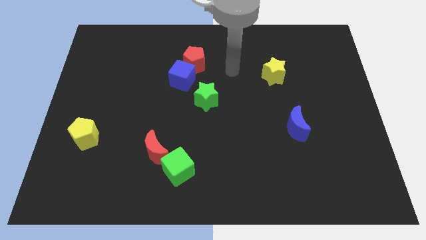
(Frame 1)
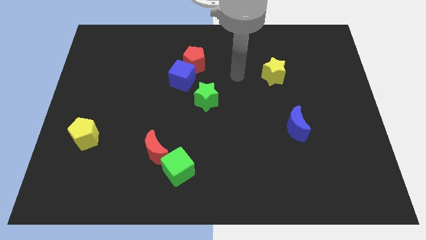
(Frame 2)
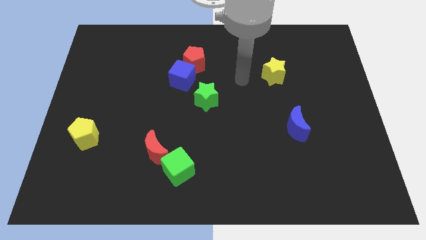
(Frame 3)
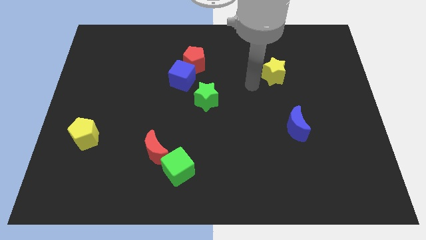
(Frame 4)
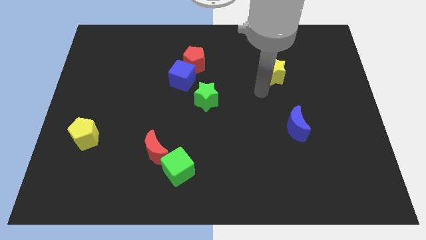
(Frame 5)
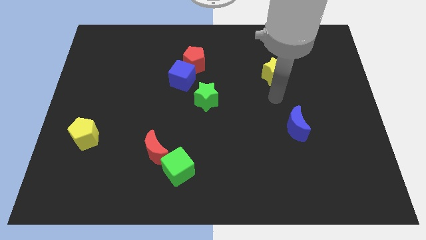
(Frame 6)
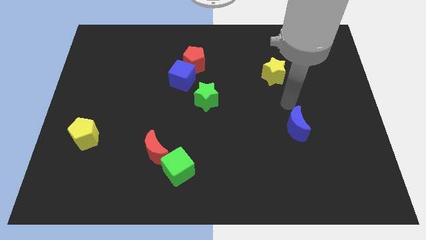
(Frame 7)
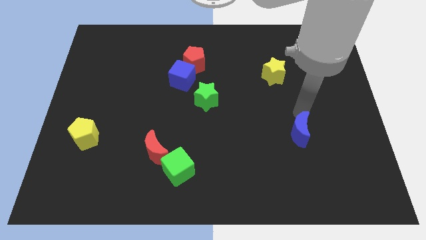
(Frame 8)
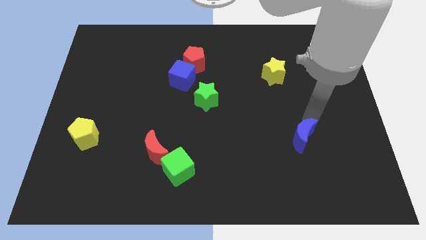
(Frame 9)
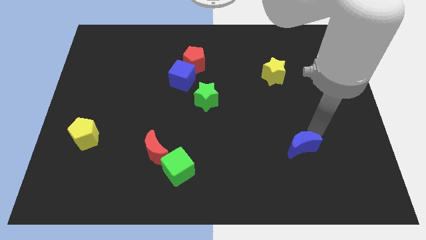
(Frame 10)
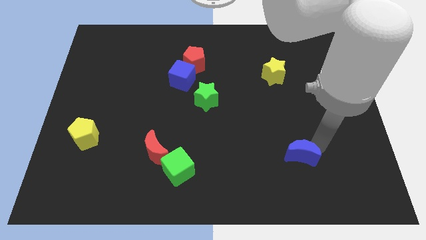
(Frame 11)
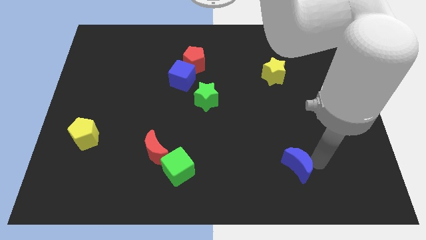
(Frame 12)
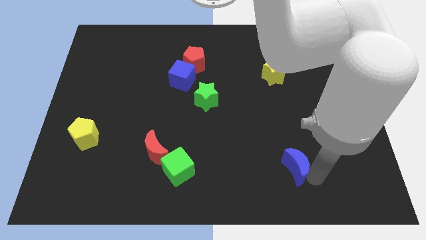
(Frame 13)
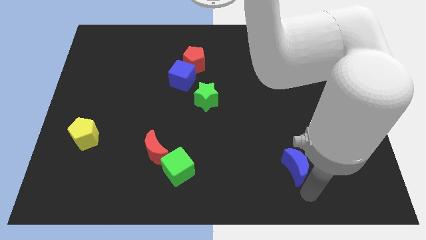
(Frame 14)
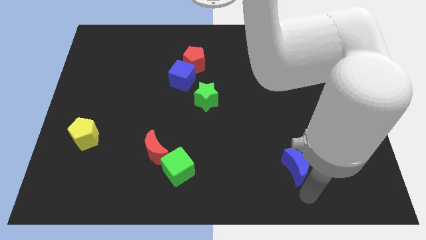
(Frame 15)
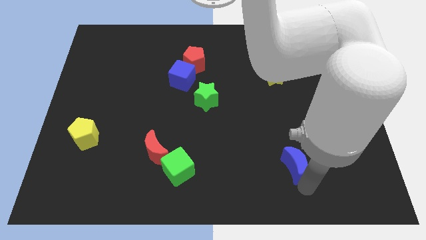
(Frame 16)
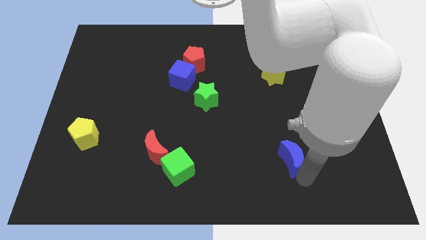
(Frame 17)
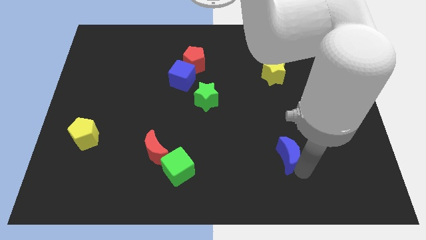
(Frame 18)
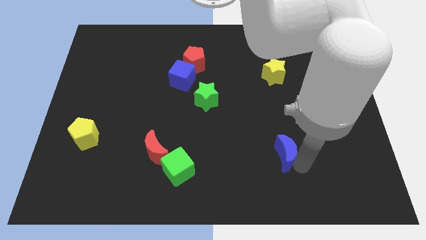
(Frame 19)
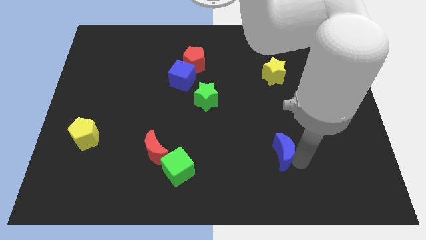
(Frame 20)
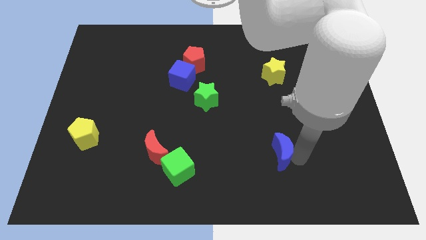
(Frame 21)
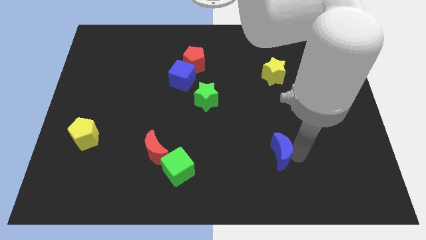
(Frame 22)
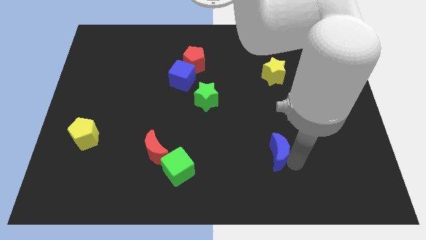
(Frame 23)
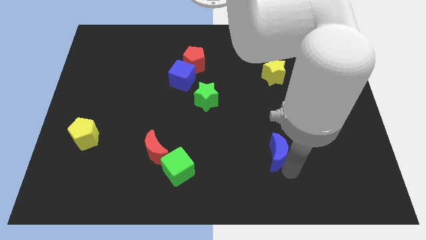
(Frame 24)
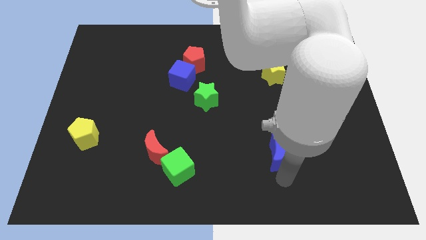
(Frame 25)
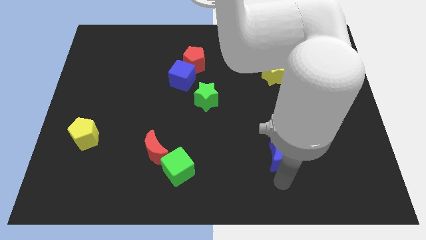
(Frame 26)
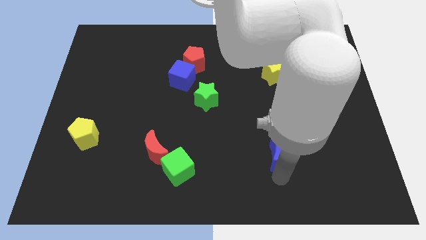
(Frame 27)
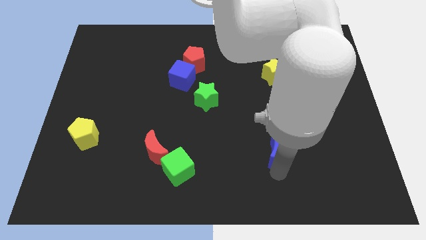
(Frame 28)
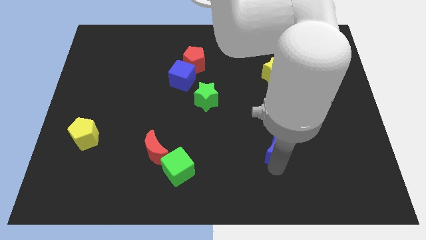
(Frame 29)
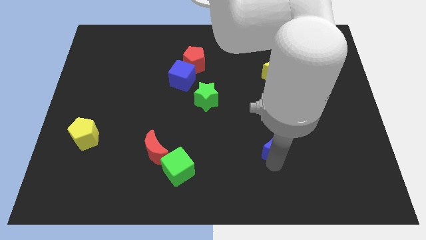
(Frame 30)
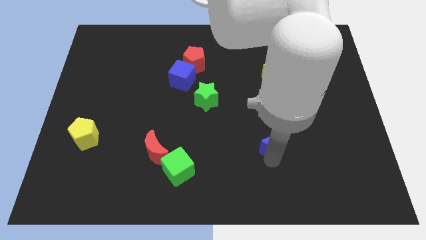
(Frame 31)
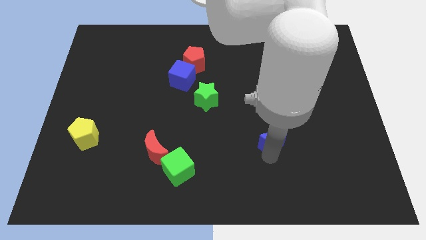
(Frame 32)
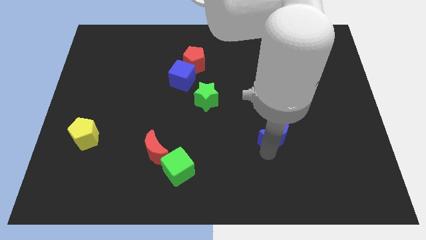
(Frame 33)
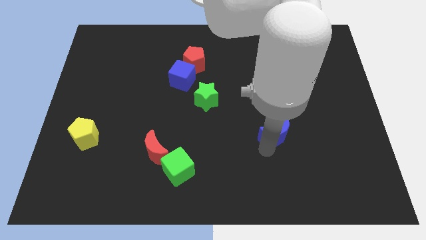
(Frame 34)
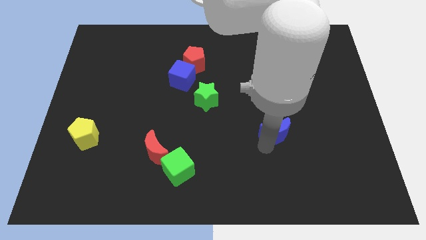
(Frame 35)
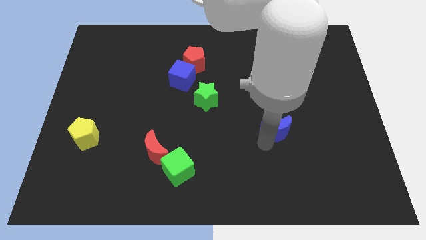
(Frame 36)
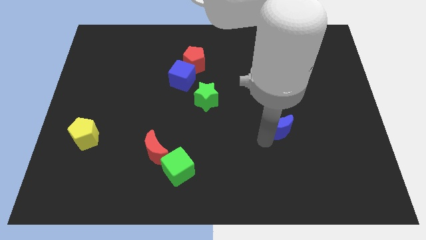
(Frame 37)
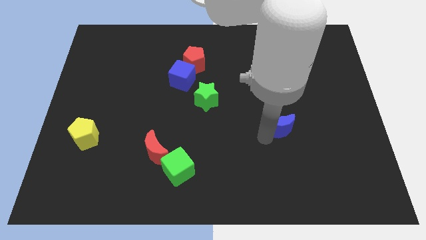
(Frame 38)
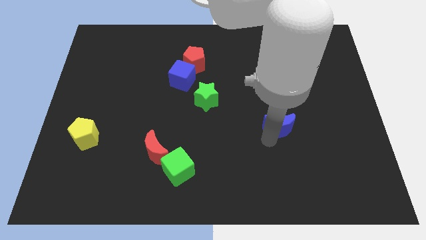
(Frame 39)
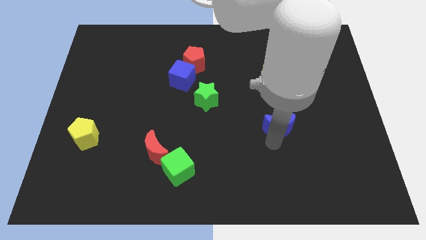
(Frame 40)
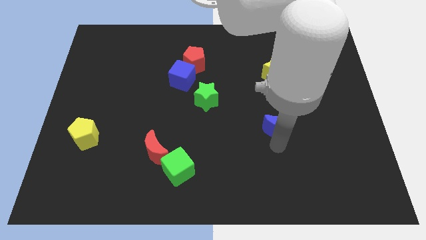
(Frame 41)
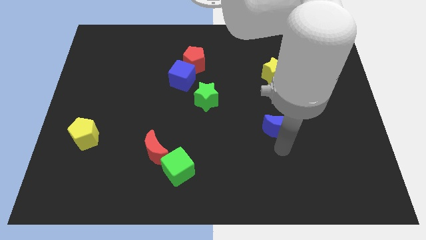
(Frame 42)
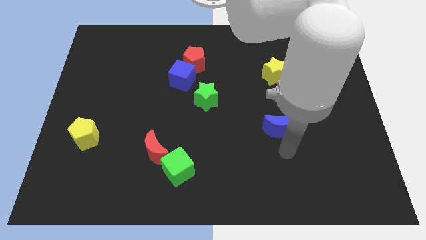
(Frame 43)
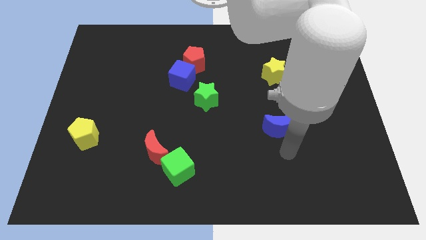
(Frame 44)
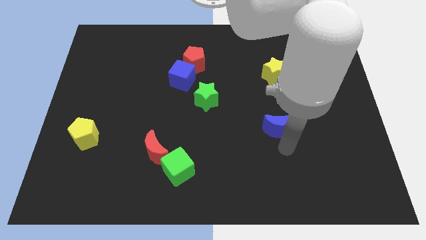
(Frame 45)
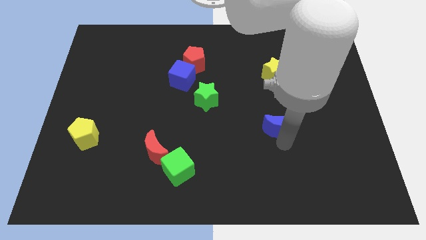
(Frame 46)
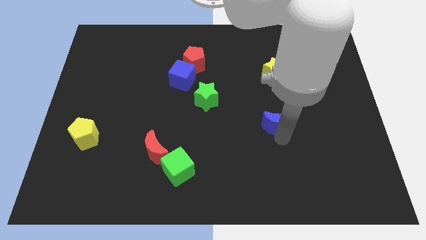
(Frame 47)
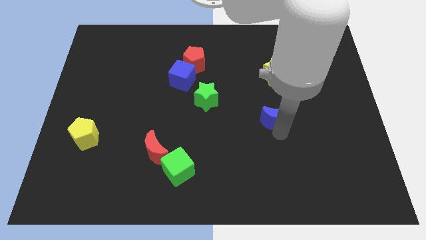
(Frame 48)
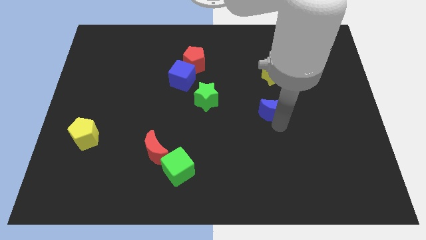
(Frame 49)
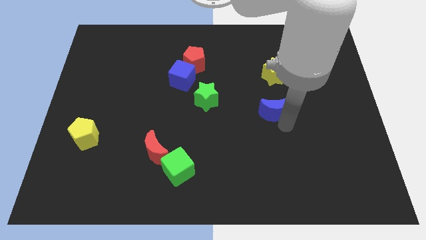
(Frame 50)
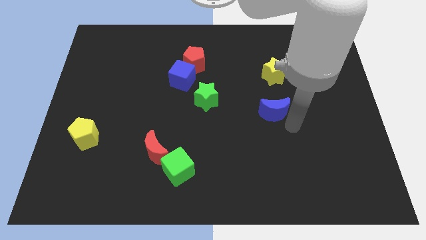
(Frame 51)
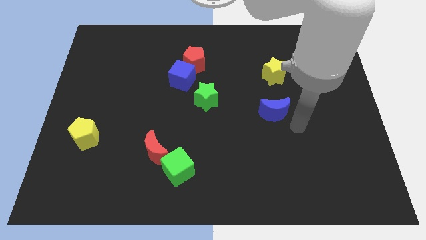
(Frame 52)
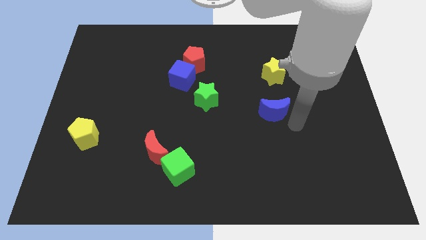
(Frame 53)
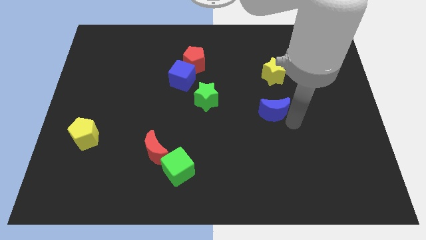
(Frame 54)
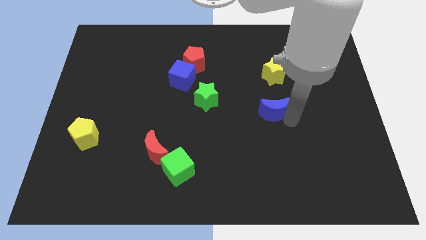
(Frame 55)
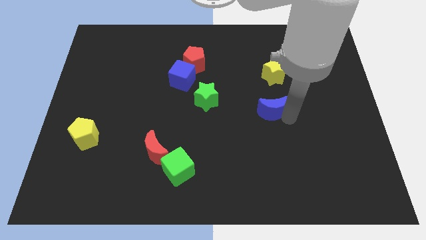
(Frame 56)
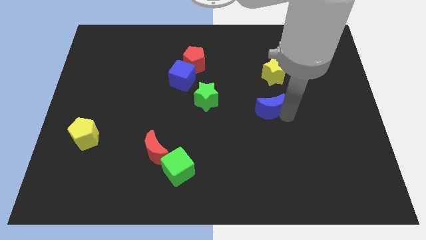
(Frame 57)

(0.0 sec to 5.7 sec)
push the blue moon just right of the green star

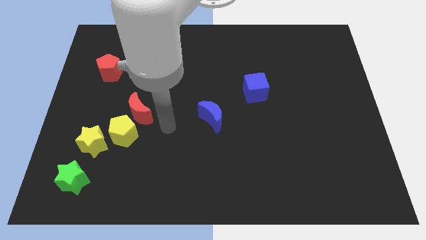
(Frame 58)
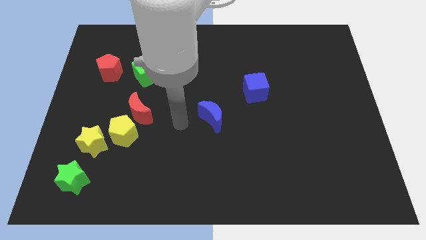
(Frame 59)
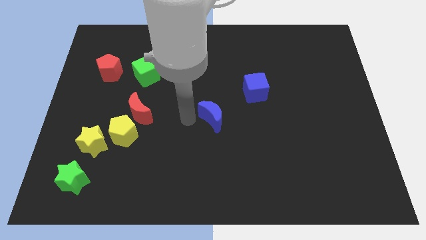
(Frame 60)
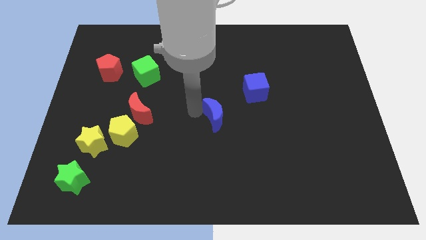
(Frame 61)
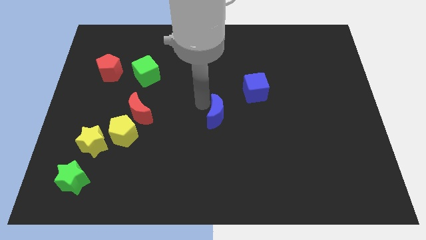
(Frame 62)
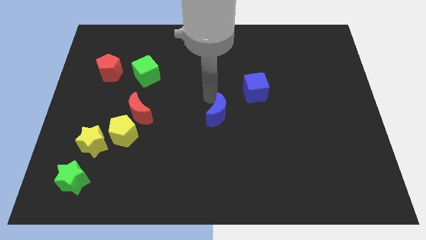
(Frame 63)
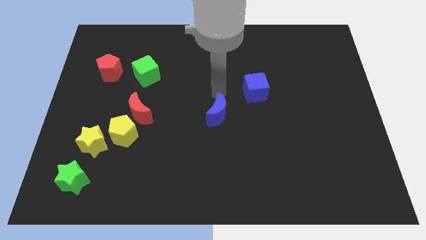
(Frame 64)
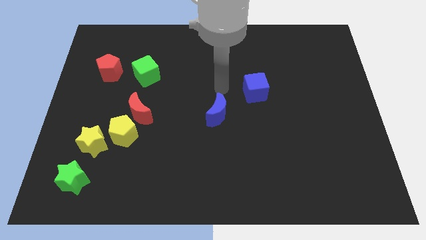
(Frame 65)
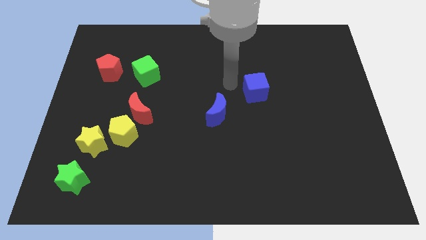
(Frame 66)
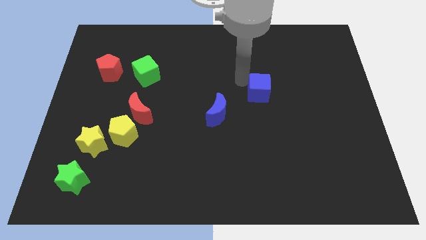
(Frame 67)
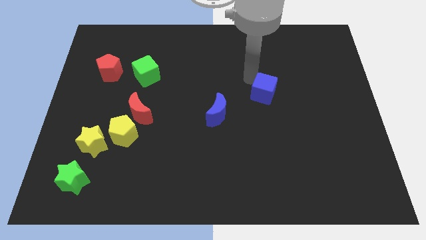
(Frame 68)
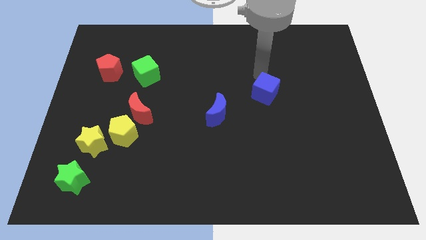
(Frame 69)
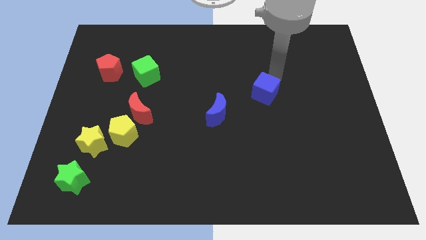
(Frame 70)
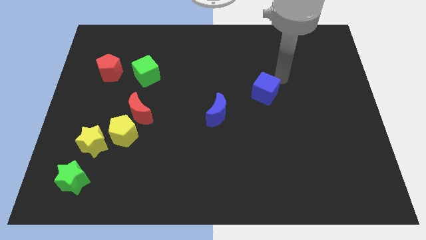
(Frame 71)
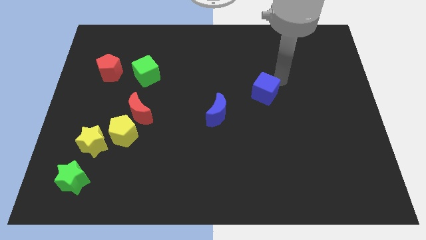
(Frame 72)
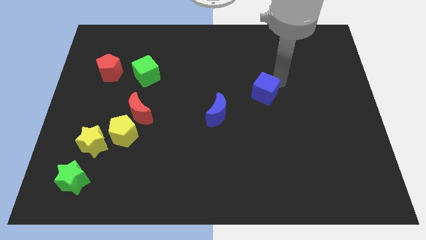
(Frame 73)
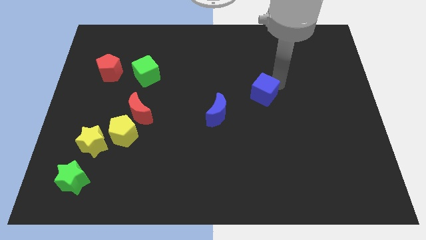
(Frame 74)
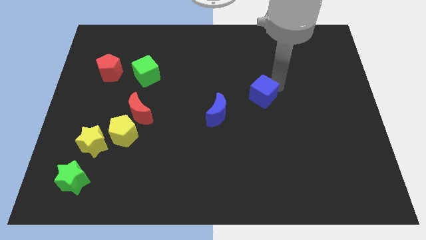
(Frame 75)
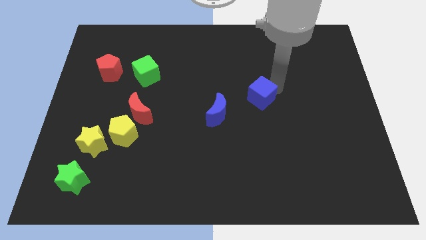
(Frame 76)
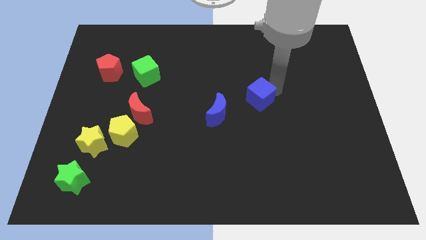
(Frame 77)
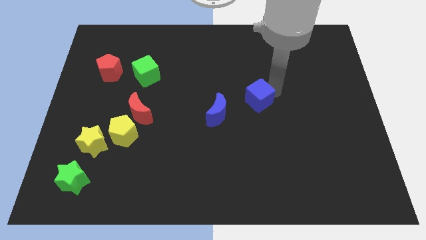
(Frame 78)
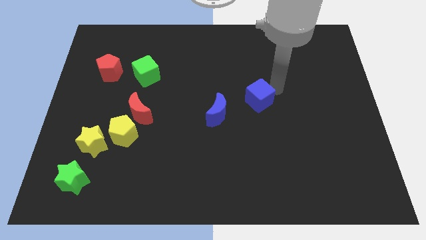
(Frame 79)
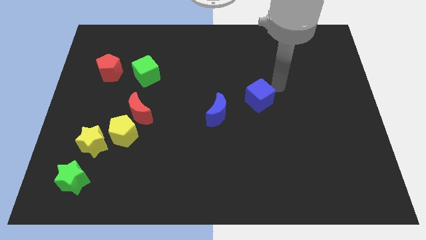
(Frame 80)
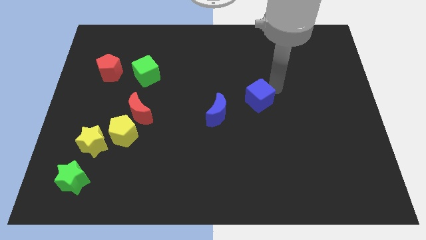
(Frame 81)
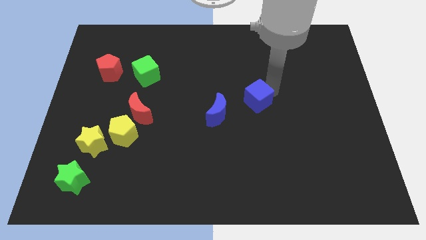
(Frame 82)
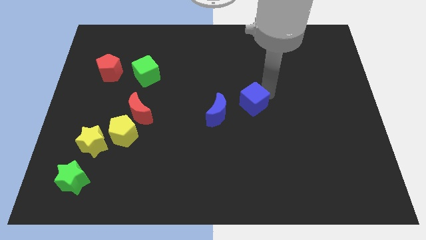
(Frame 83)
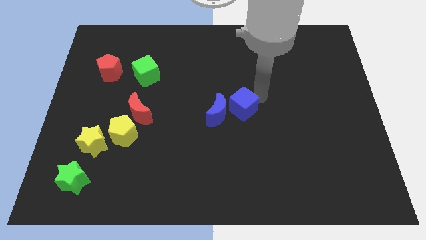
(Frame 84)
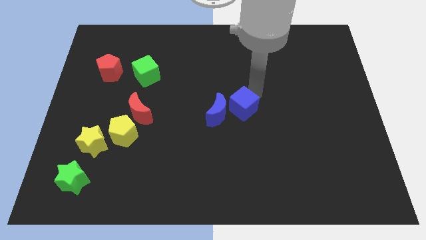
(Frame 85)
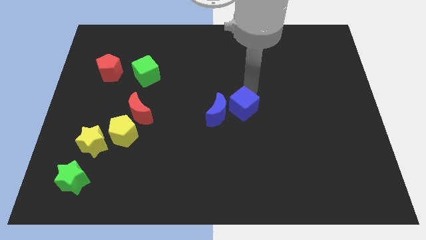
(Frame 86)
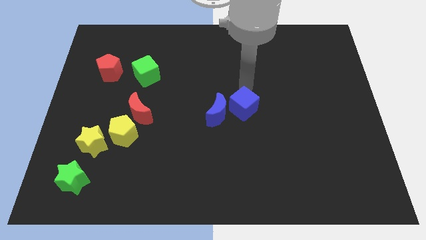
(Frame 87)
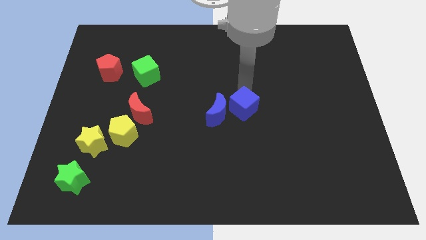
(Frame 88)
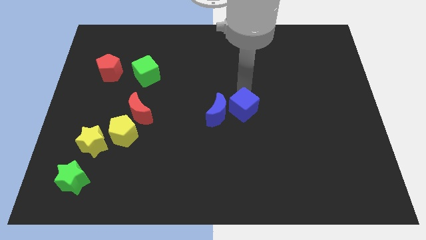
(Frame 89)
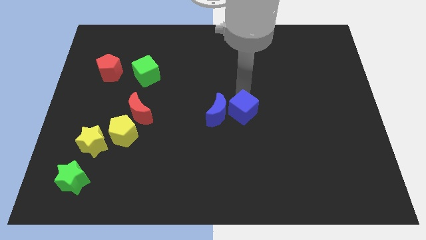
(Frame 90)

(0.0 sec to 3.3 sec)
push the blue cube diagonally down and to the right of the blue moon
